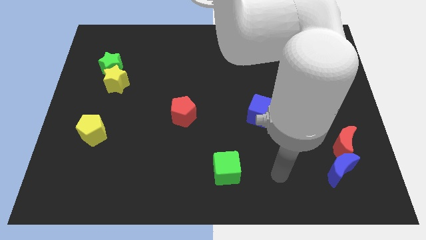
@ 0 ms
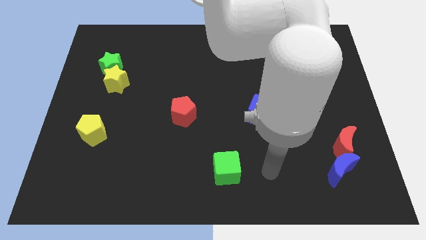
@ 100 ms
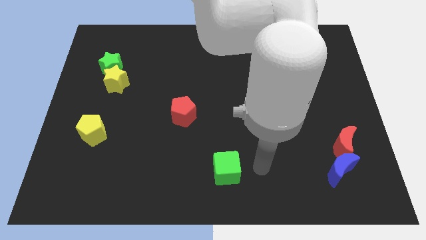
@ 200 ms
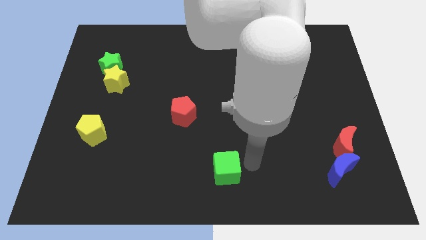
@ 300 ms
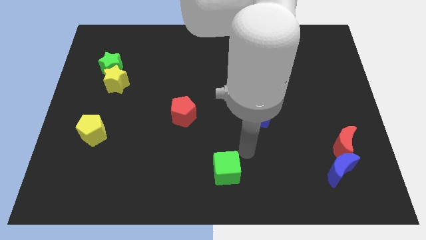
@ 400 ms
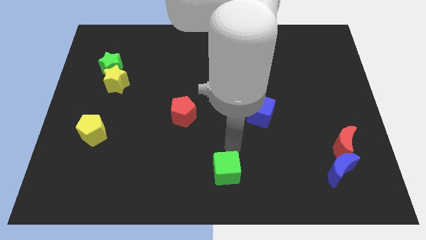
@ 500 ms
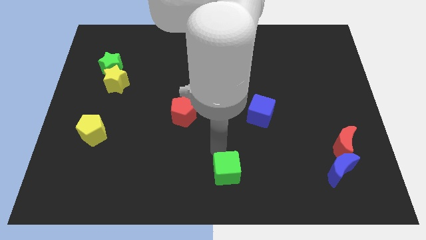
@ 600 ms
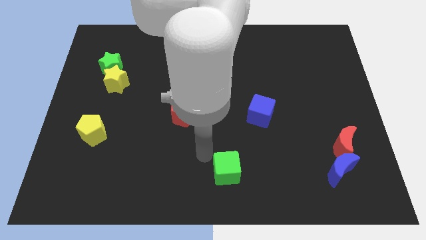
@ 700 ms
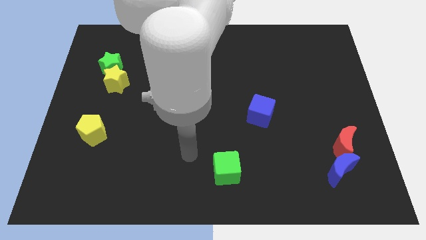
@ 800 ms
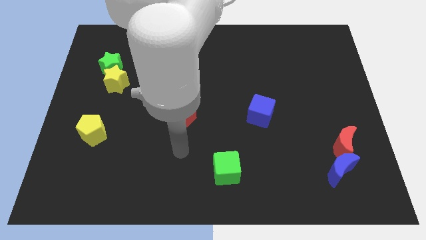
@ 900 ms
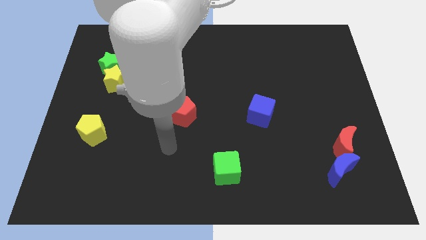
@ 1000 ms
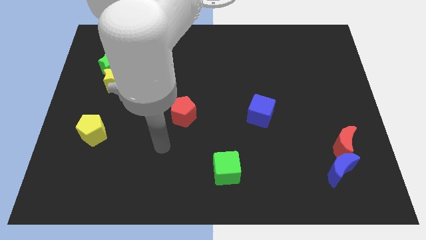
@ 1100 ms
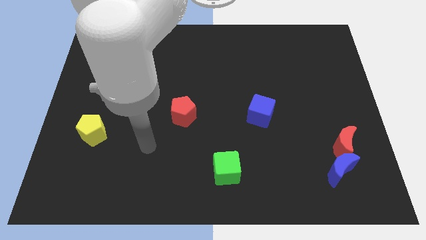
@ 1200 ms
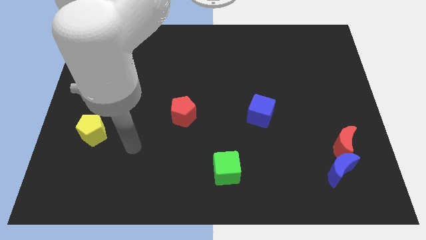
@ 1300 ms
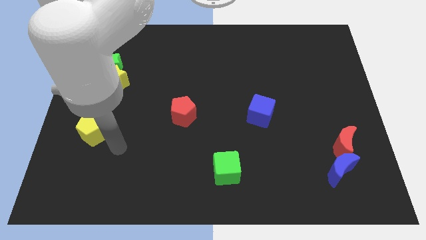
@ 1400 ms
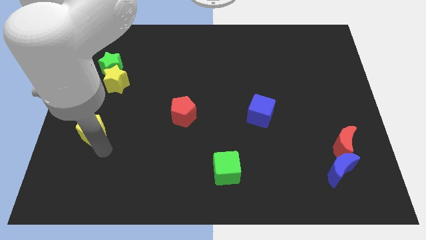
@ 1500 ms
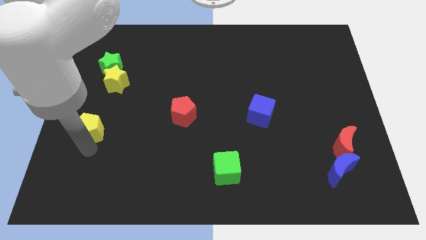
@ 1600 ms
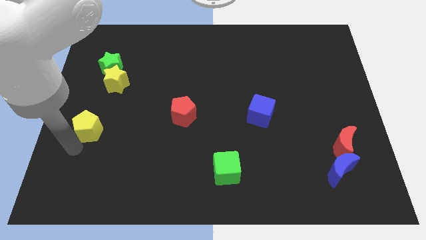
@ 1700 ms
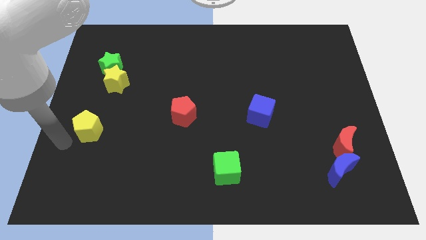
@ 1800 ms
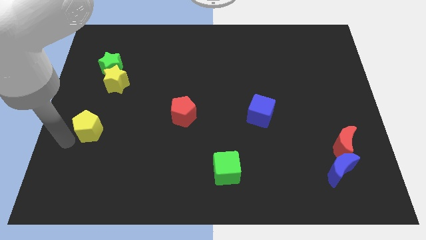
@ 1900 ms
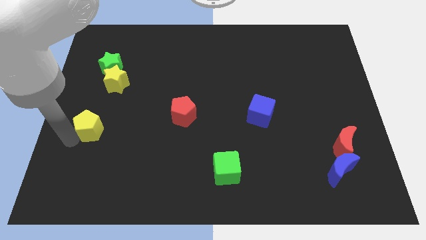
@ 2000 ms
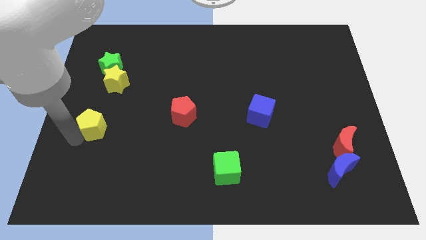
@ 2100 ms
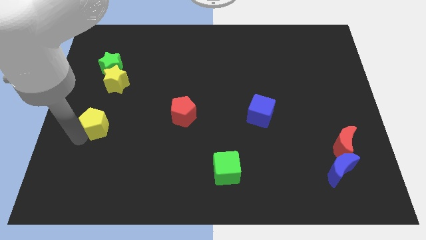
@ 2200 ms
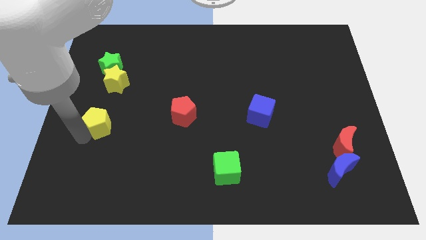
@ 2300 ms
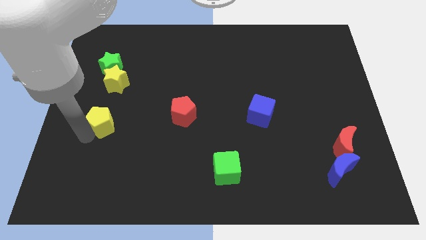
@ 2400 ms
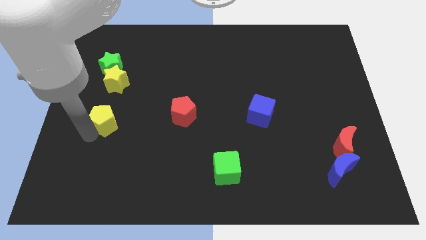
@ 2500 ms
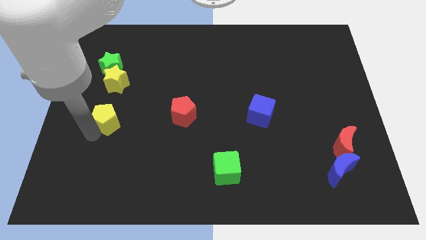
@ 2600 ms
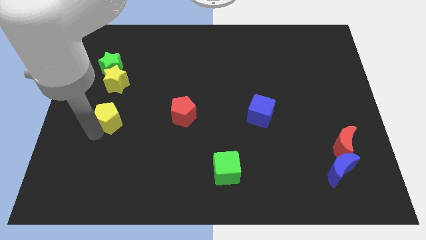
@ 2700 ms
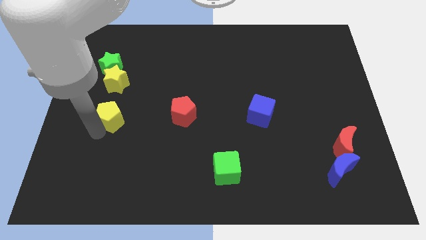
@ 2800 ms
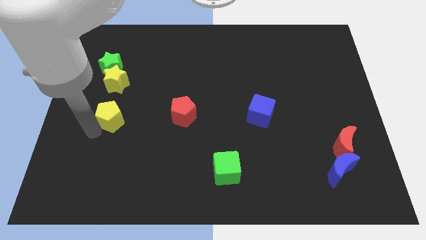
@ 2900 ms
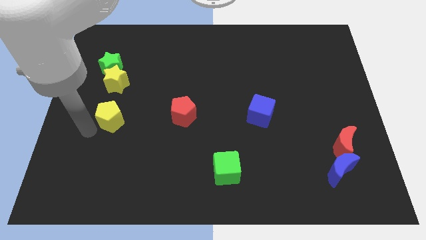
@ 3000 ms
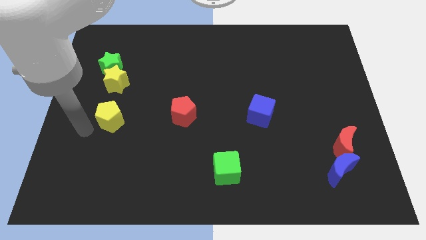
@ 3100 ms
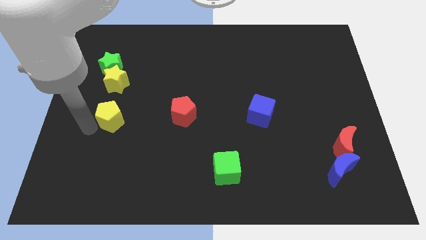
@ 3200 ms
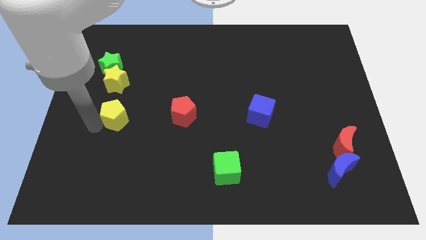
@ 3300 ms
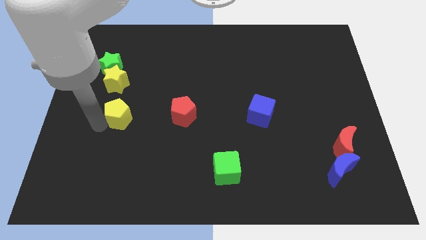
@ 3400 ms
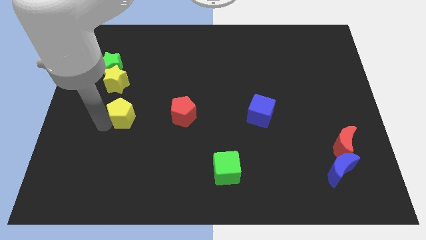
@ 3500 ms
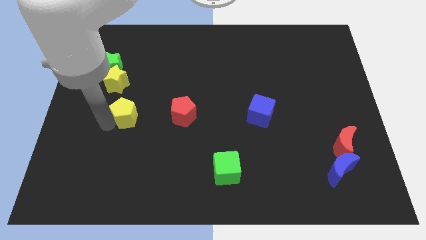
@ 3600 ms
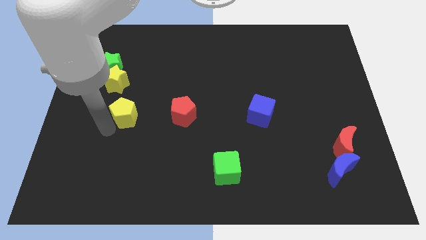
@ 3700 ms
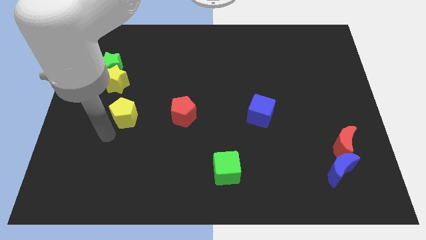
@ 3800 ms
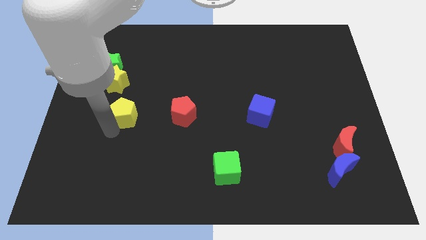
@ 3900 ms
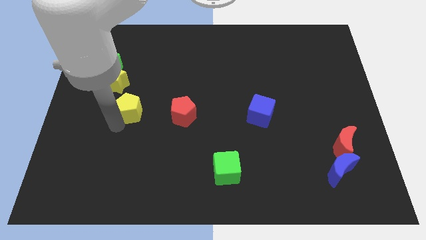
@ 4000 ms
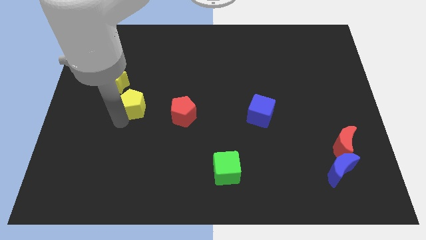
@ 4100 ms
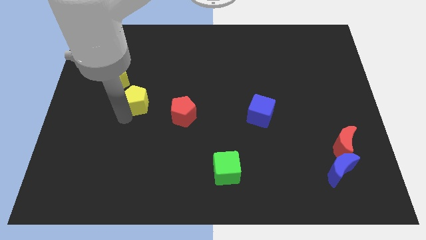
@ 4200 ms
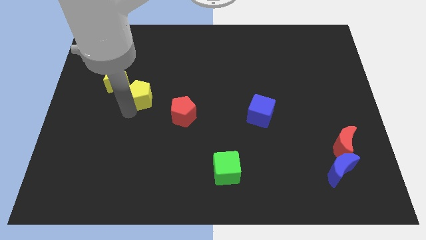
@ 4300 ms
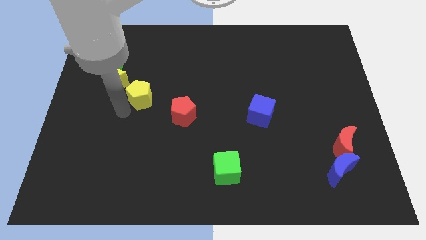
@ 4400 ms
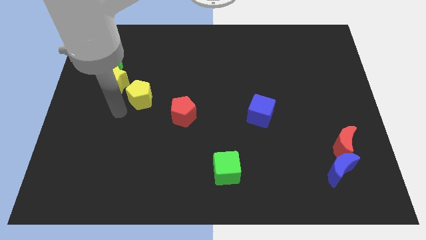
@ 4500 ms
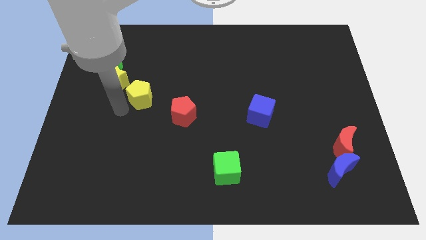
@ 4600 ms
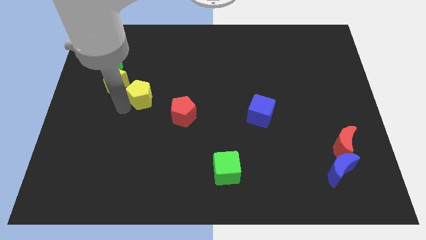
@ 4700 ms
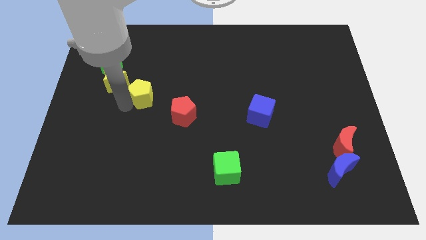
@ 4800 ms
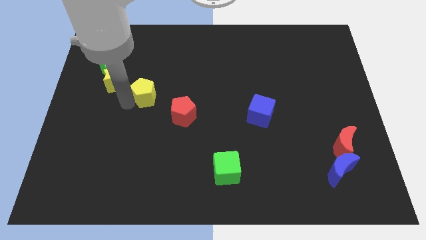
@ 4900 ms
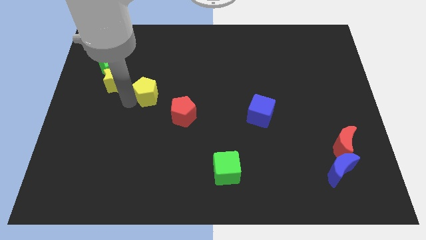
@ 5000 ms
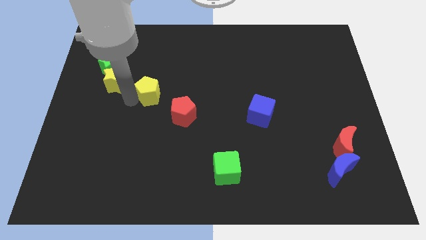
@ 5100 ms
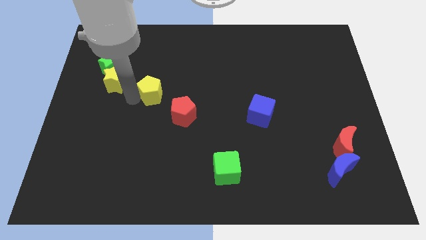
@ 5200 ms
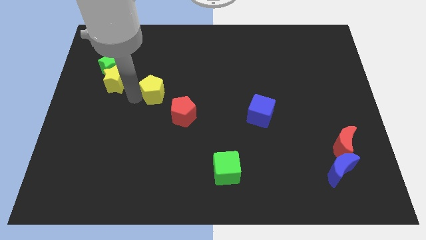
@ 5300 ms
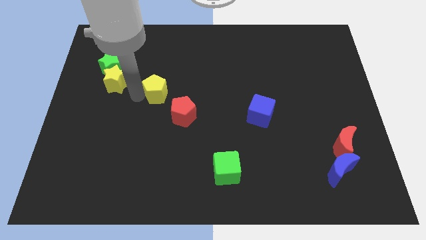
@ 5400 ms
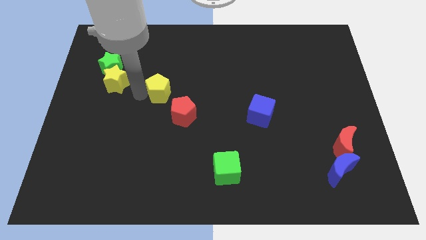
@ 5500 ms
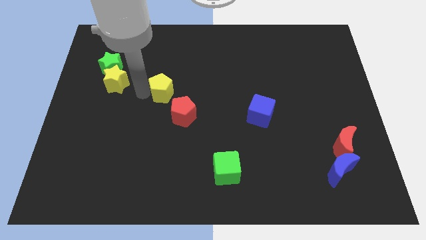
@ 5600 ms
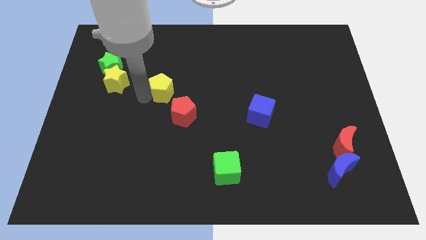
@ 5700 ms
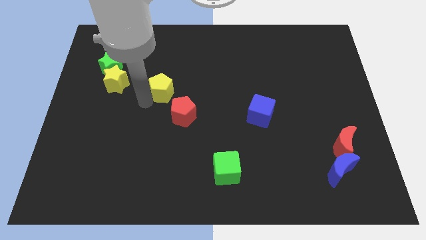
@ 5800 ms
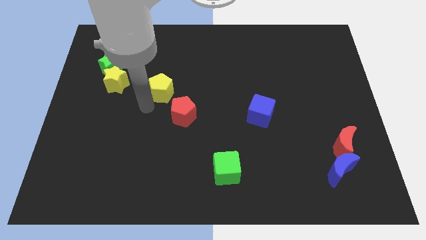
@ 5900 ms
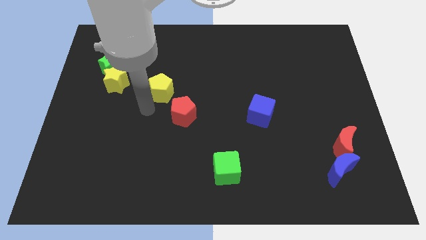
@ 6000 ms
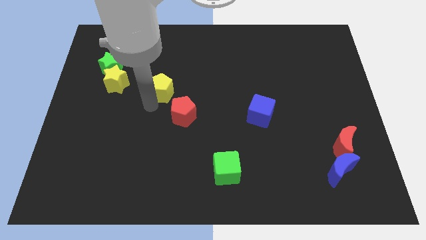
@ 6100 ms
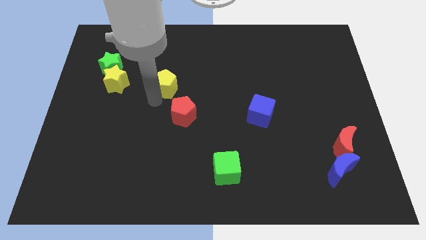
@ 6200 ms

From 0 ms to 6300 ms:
slide the yellow pentagon upwards and then right

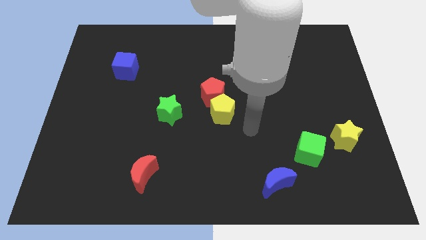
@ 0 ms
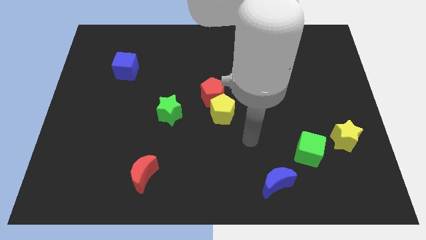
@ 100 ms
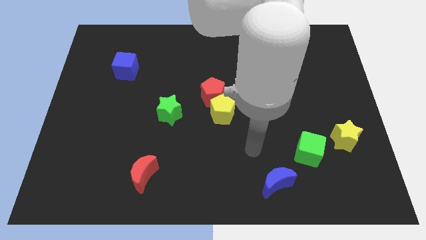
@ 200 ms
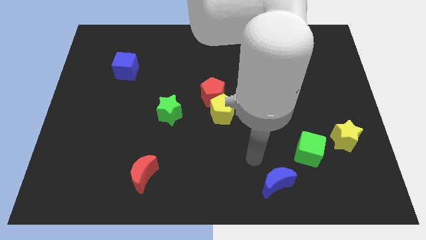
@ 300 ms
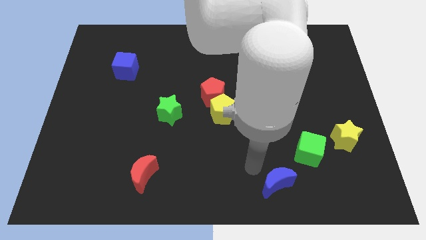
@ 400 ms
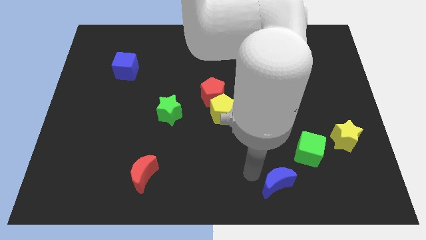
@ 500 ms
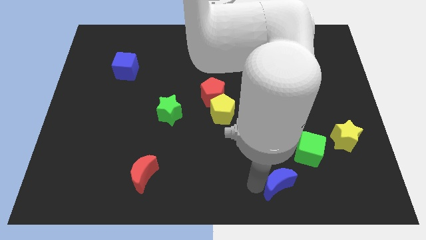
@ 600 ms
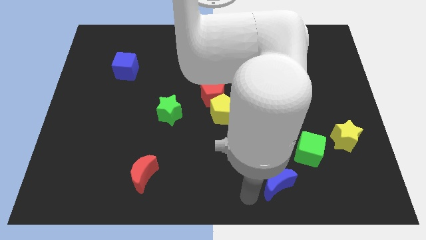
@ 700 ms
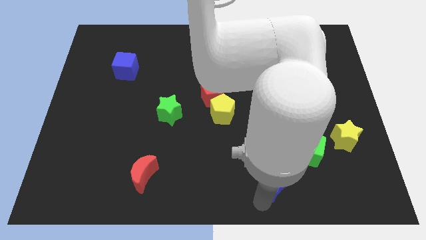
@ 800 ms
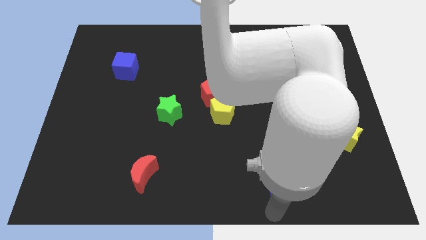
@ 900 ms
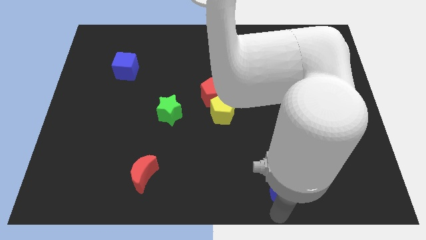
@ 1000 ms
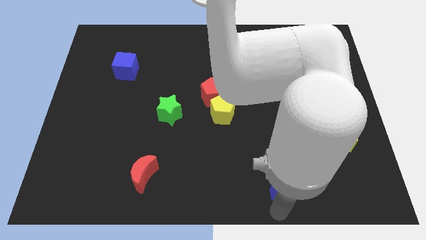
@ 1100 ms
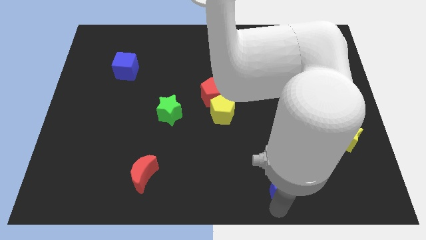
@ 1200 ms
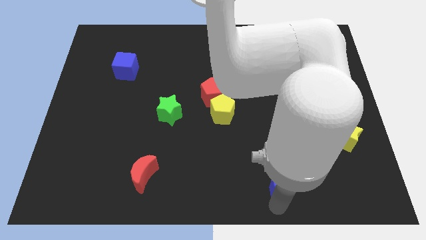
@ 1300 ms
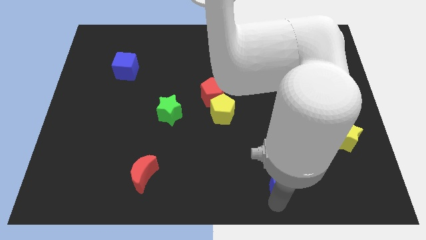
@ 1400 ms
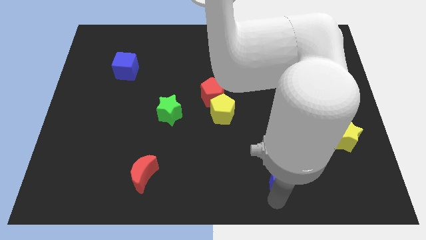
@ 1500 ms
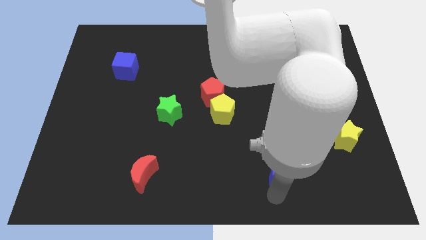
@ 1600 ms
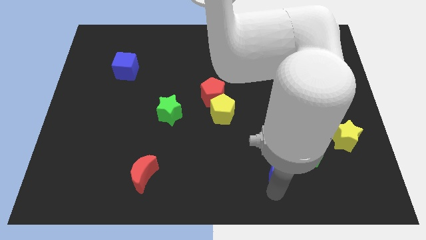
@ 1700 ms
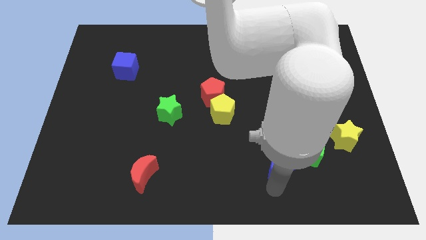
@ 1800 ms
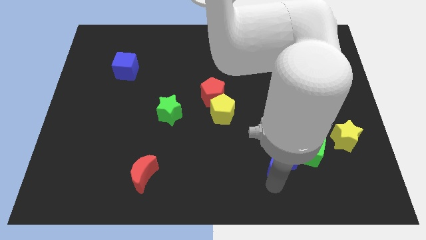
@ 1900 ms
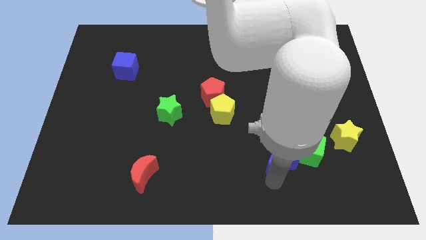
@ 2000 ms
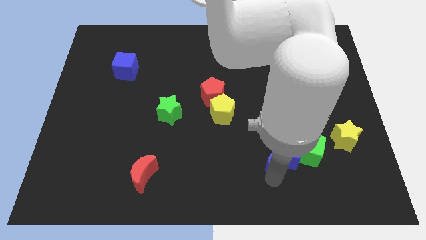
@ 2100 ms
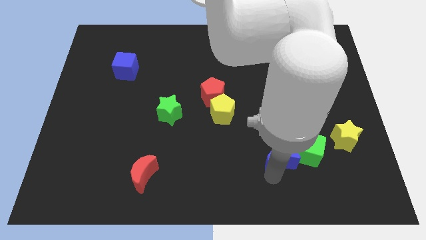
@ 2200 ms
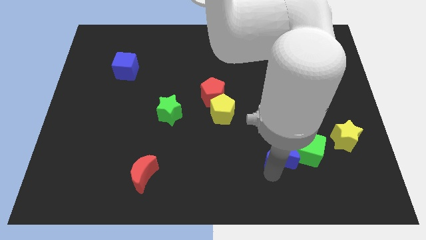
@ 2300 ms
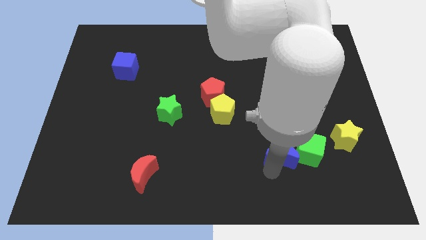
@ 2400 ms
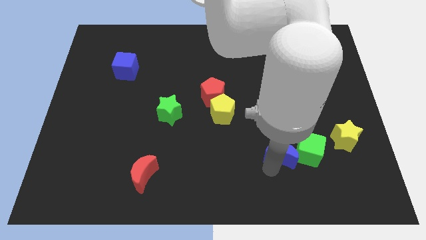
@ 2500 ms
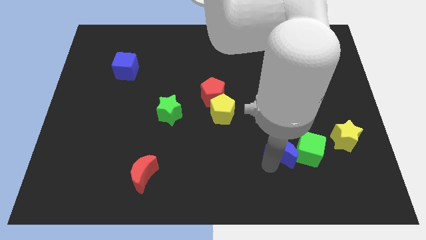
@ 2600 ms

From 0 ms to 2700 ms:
slightly push the blue moon up
